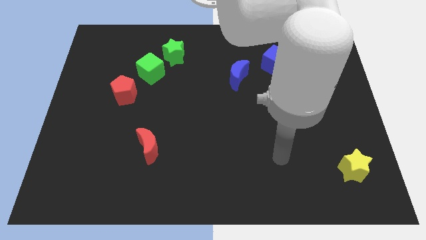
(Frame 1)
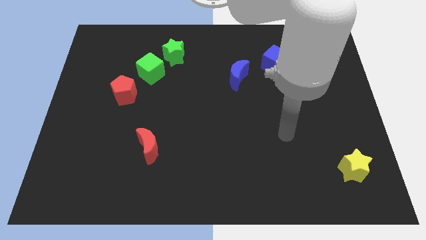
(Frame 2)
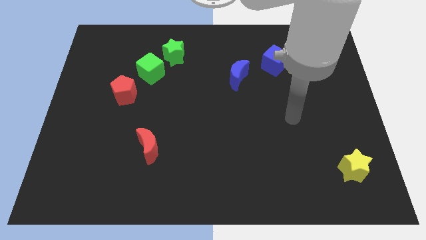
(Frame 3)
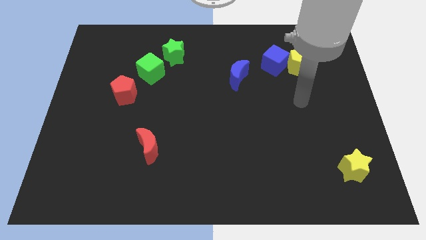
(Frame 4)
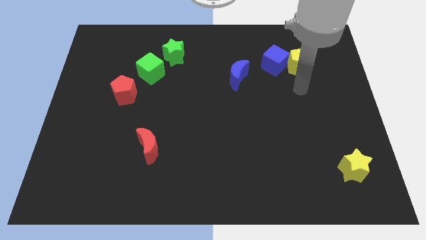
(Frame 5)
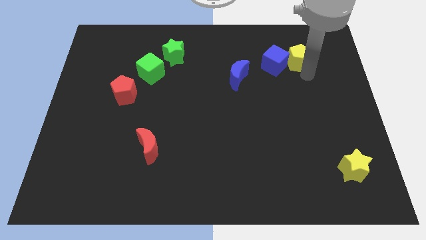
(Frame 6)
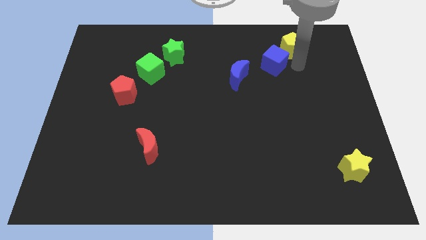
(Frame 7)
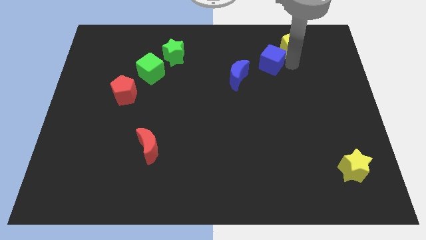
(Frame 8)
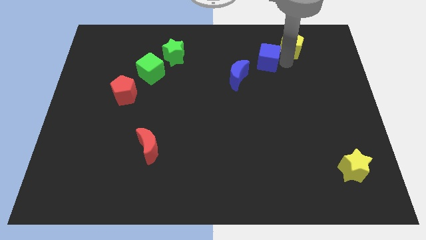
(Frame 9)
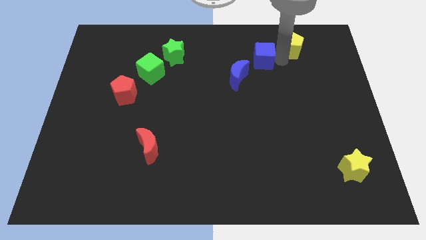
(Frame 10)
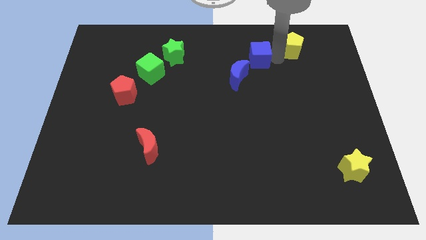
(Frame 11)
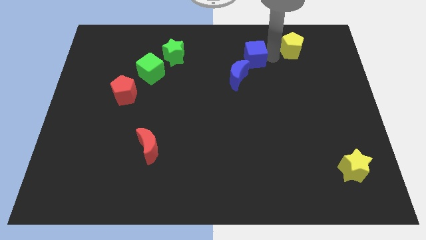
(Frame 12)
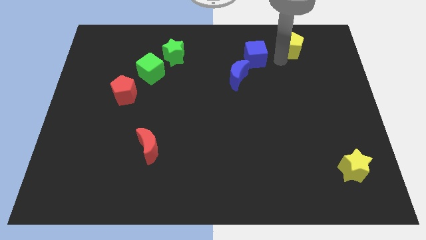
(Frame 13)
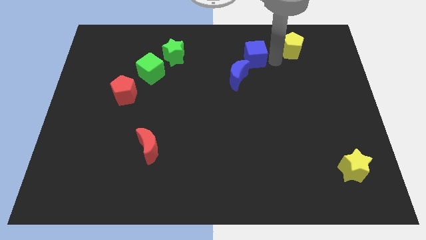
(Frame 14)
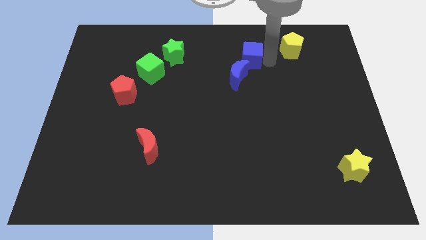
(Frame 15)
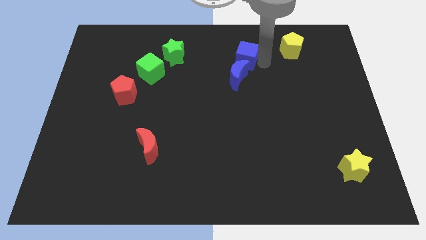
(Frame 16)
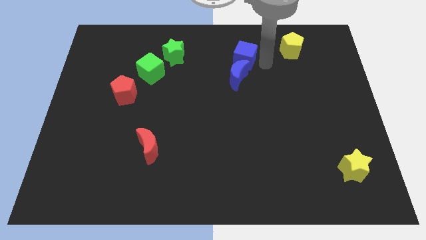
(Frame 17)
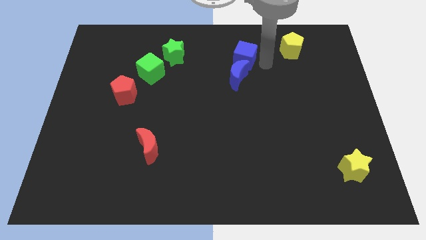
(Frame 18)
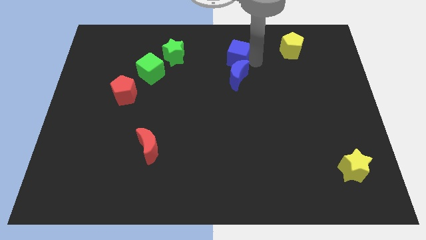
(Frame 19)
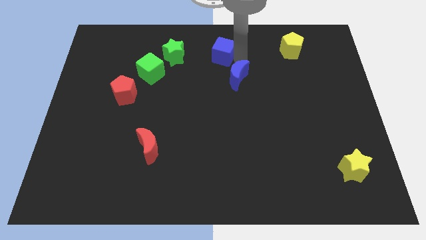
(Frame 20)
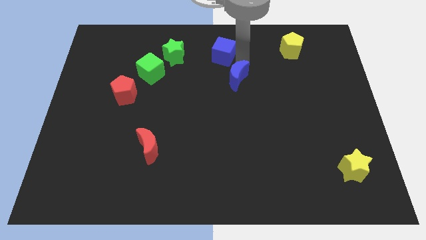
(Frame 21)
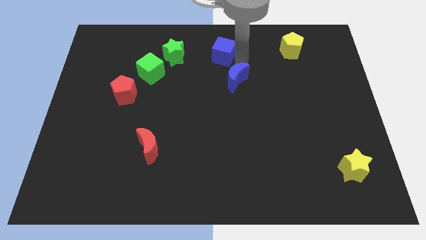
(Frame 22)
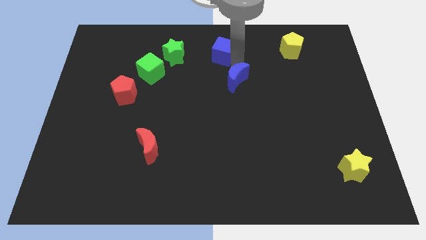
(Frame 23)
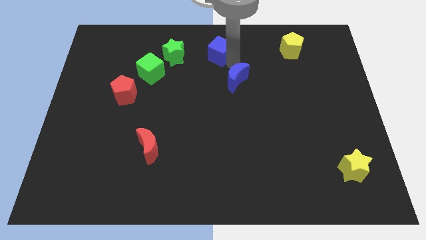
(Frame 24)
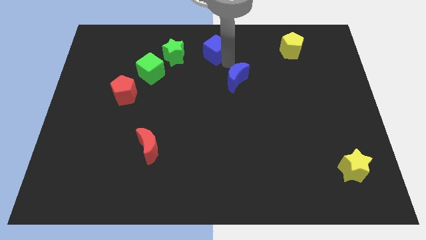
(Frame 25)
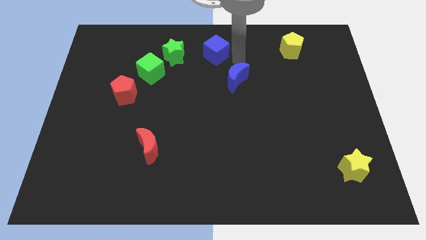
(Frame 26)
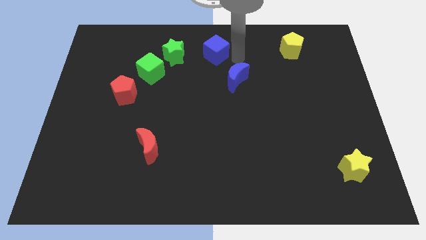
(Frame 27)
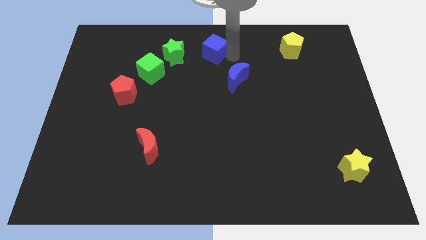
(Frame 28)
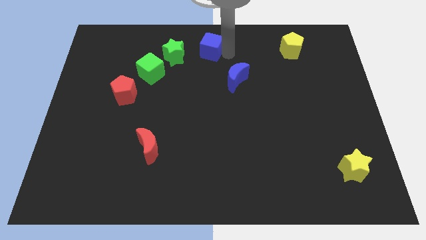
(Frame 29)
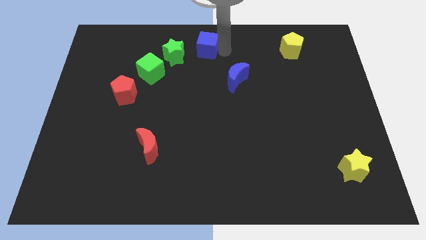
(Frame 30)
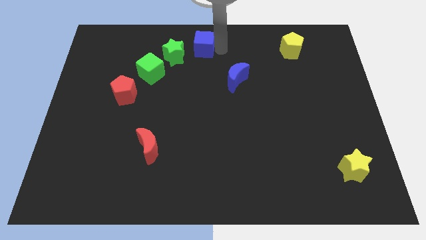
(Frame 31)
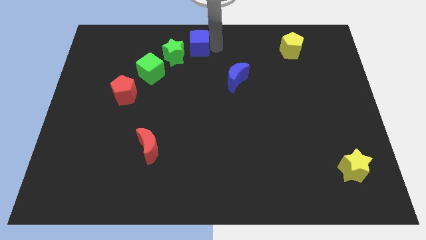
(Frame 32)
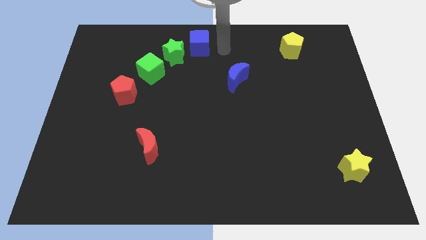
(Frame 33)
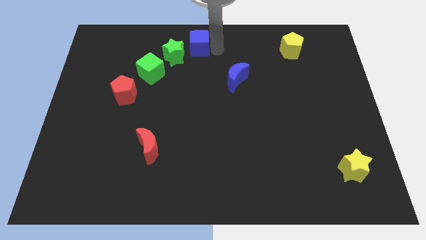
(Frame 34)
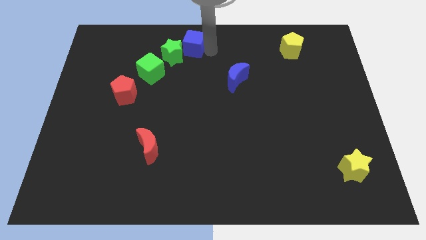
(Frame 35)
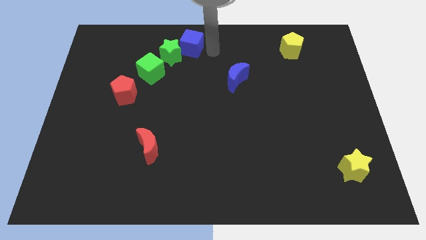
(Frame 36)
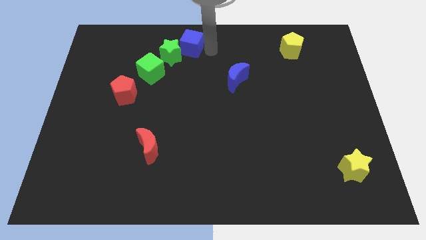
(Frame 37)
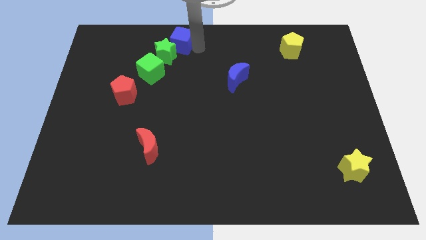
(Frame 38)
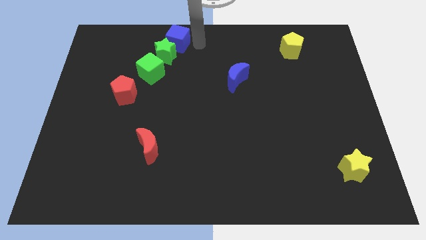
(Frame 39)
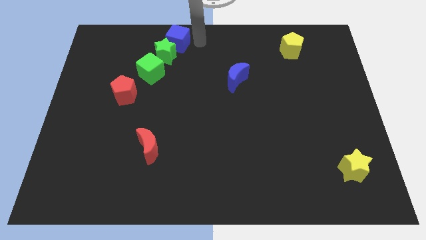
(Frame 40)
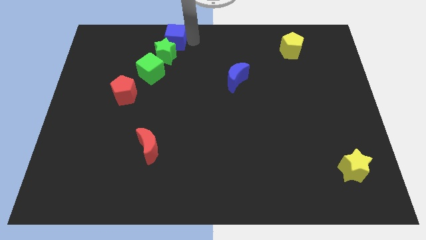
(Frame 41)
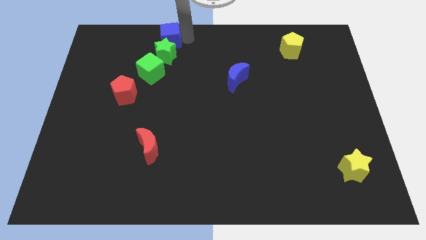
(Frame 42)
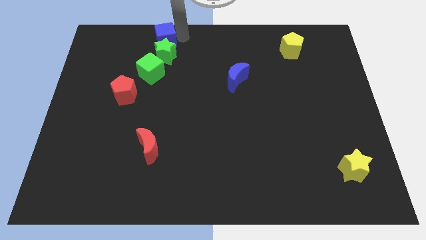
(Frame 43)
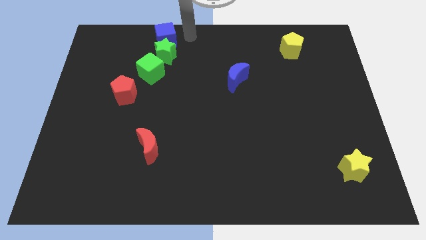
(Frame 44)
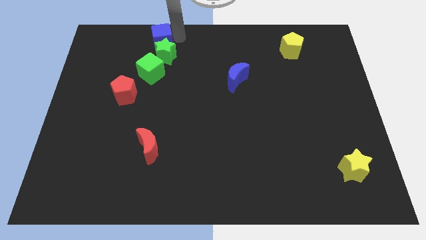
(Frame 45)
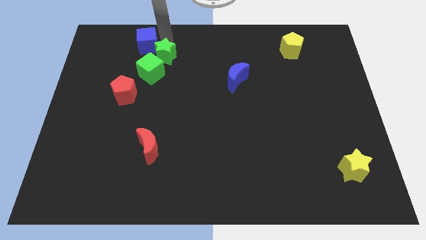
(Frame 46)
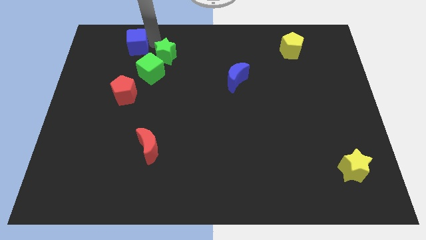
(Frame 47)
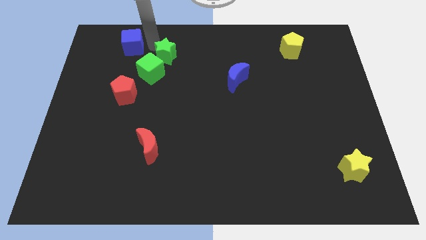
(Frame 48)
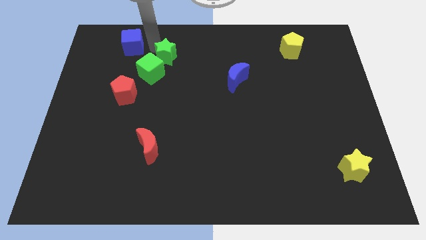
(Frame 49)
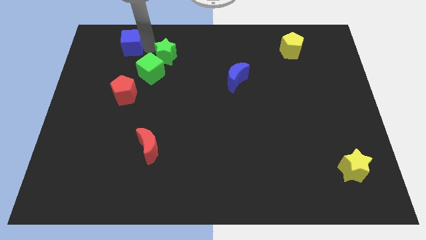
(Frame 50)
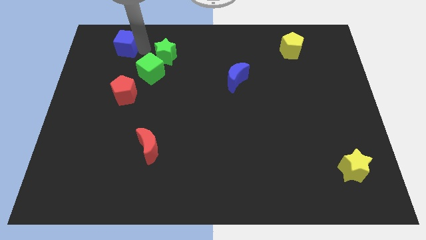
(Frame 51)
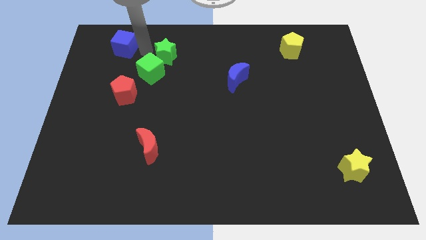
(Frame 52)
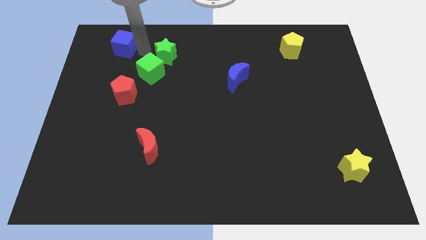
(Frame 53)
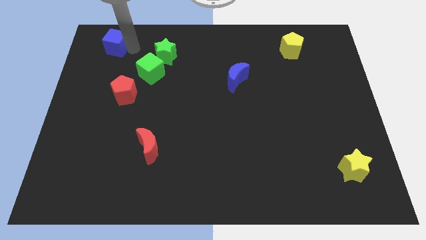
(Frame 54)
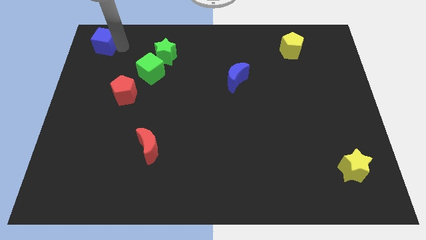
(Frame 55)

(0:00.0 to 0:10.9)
move the blue cube to the top left of the board

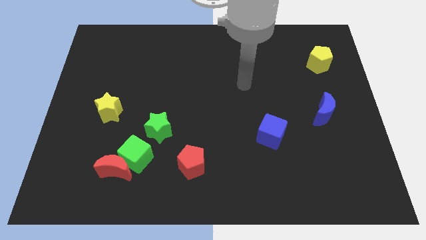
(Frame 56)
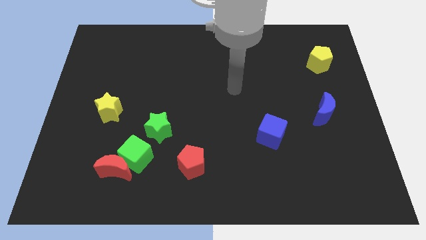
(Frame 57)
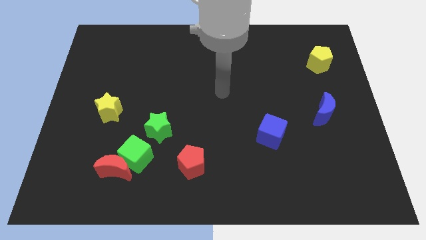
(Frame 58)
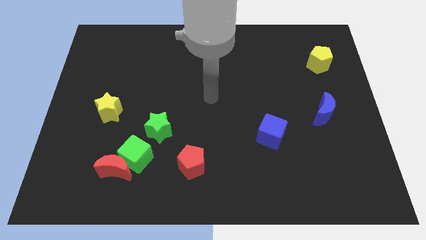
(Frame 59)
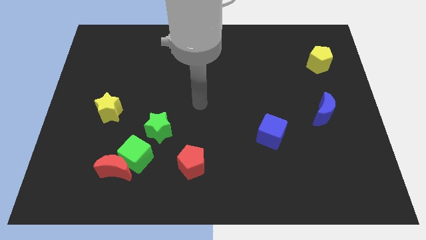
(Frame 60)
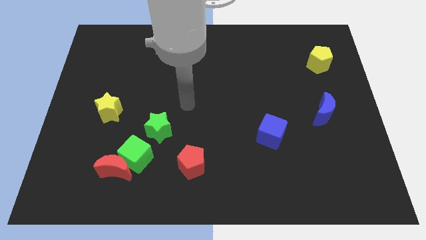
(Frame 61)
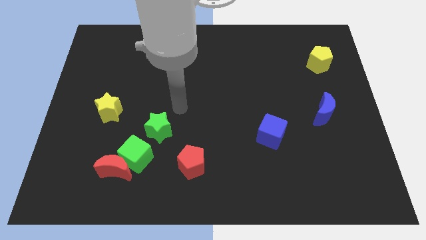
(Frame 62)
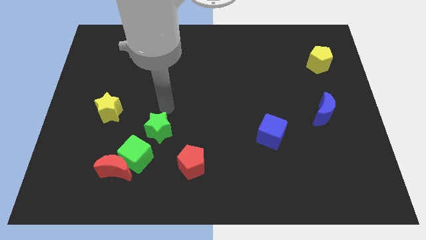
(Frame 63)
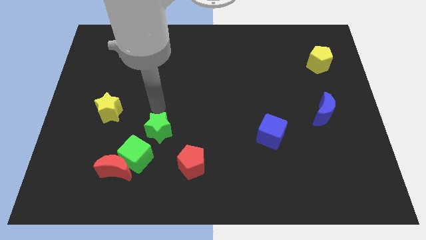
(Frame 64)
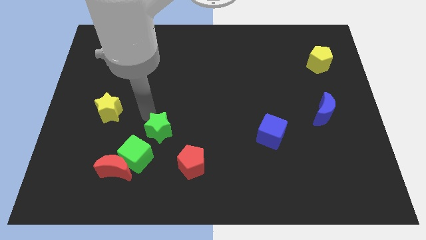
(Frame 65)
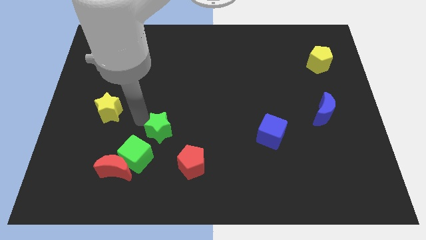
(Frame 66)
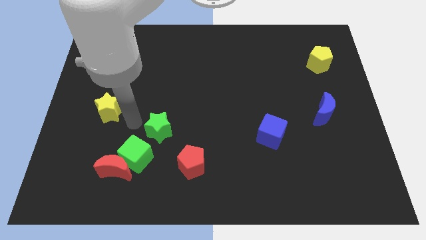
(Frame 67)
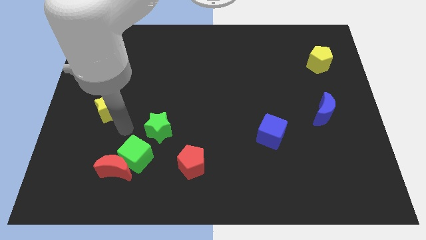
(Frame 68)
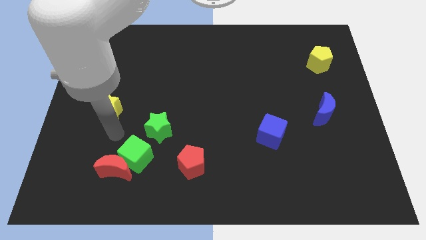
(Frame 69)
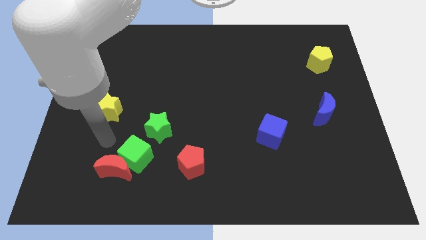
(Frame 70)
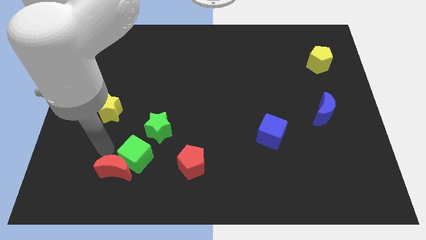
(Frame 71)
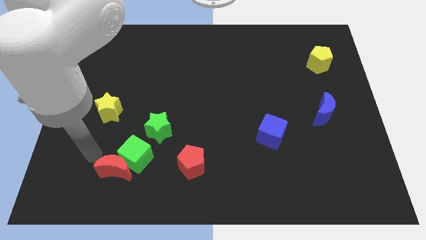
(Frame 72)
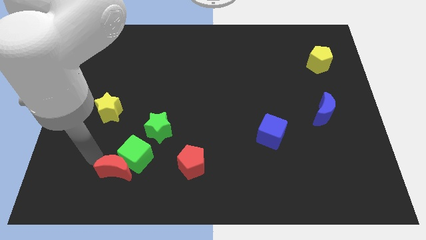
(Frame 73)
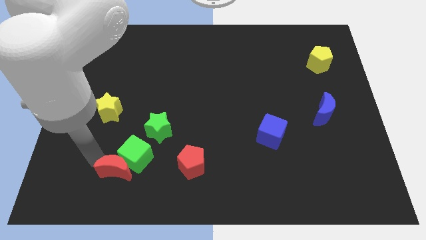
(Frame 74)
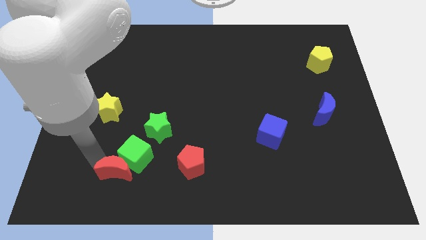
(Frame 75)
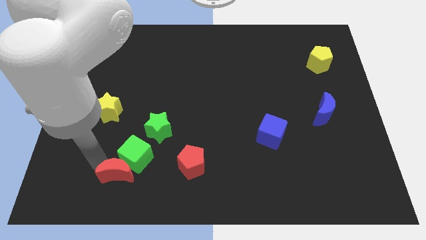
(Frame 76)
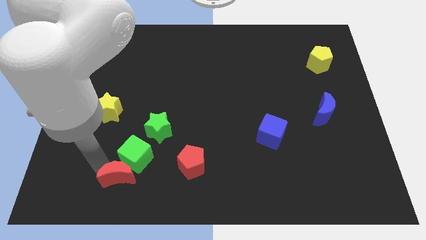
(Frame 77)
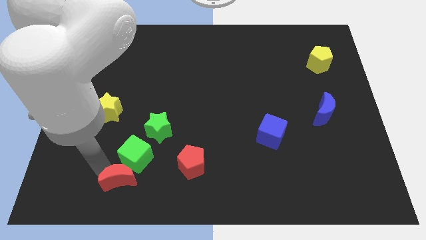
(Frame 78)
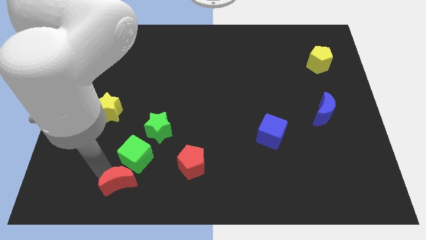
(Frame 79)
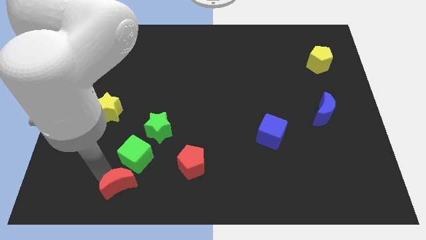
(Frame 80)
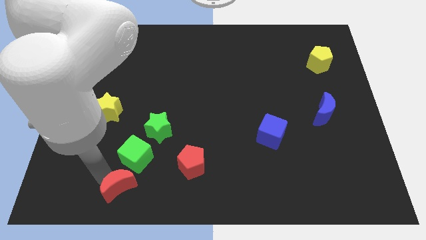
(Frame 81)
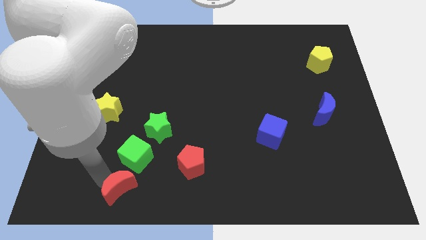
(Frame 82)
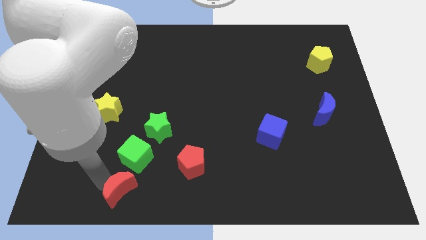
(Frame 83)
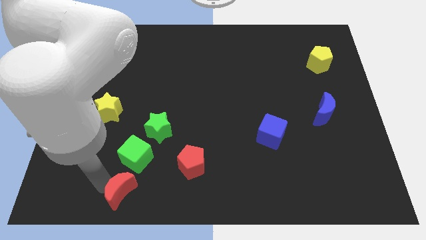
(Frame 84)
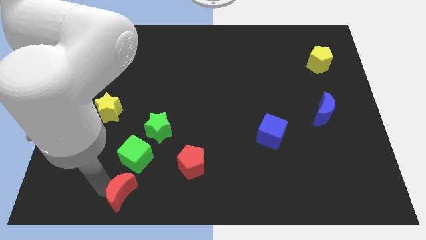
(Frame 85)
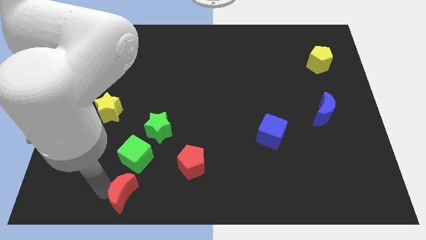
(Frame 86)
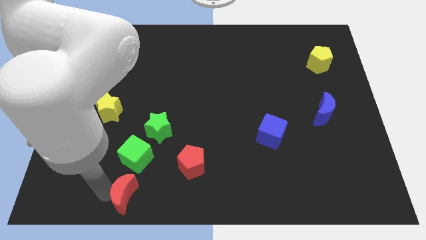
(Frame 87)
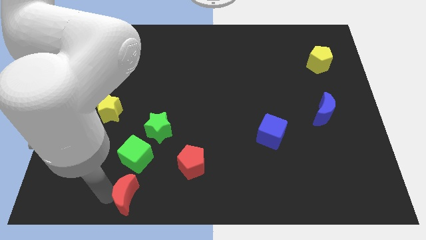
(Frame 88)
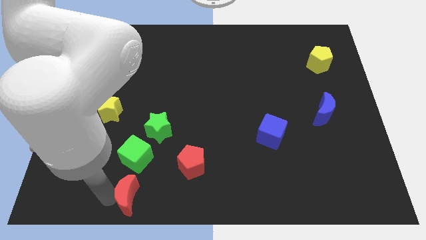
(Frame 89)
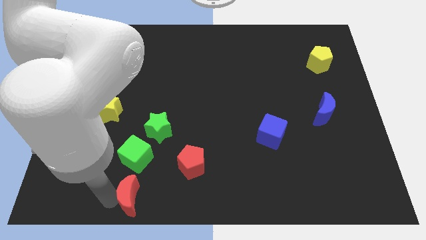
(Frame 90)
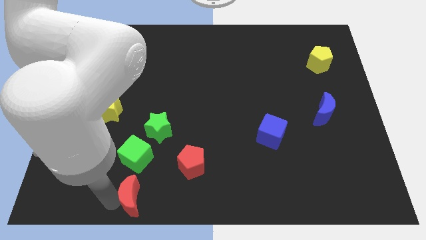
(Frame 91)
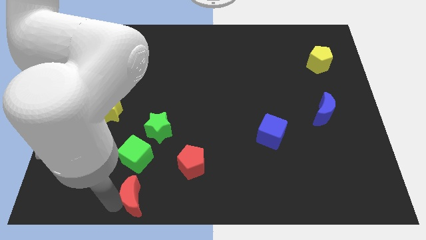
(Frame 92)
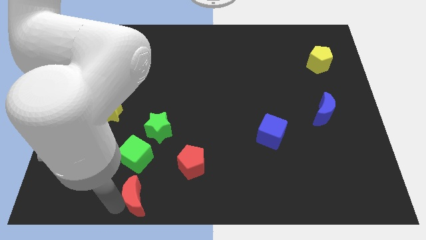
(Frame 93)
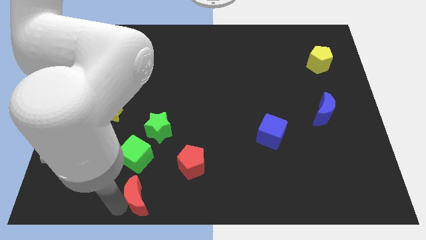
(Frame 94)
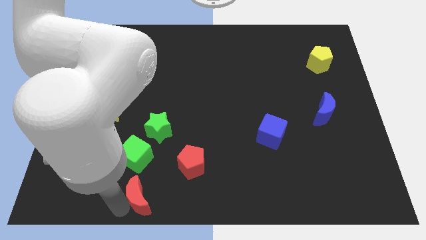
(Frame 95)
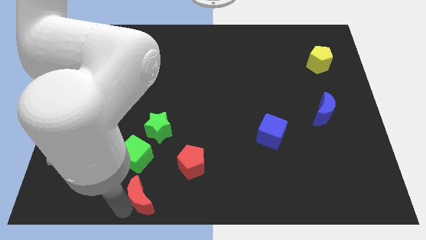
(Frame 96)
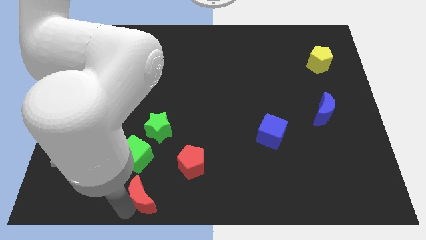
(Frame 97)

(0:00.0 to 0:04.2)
put the red moon to the bottom
